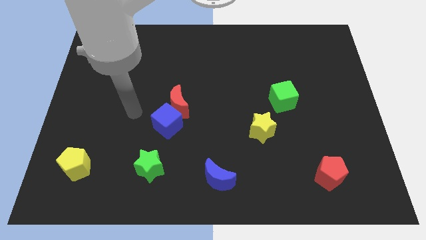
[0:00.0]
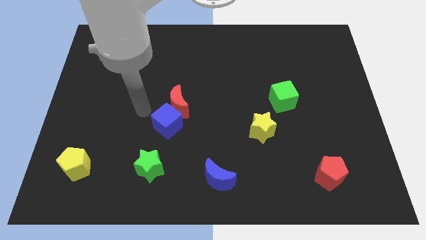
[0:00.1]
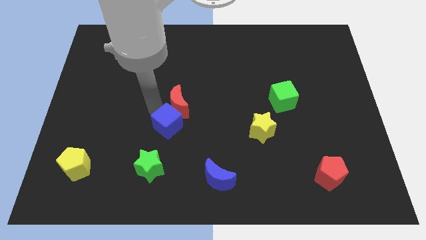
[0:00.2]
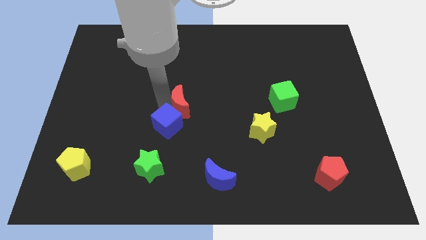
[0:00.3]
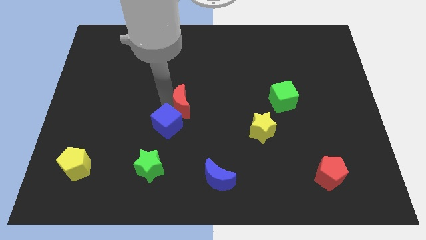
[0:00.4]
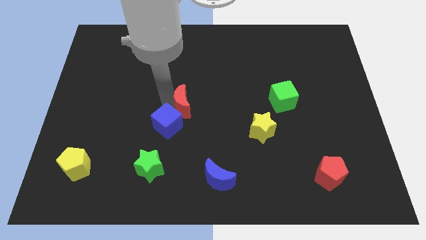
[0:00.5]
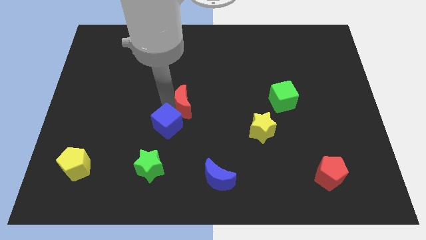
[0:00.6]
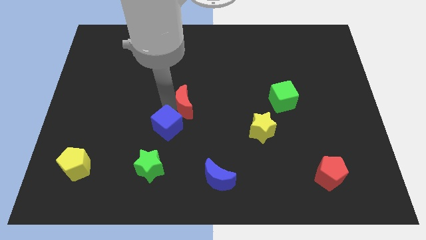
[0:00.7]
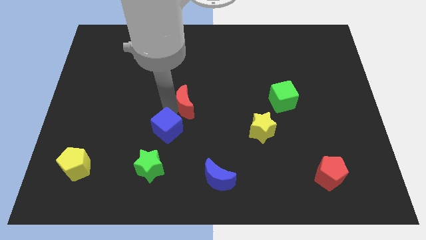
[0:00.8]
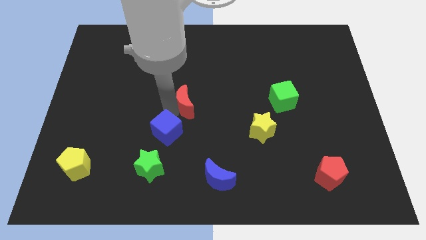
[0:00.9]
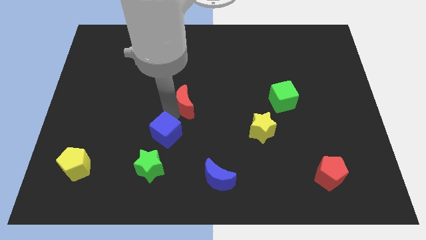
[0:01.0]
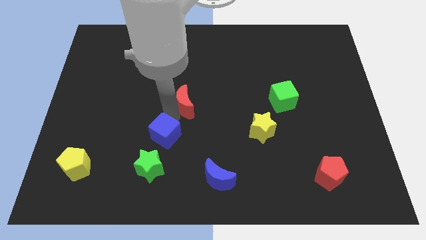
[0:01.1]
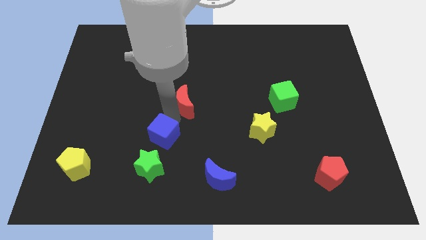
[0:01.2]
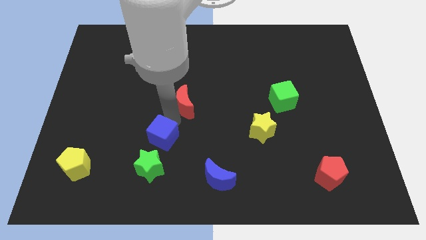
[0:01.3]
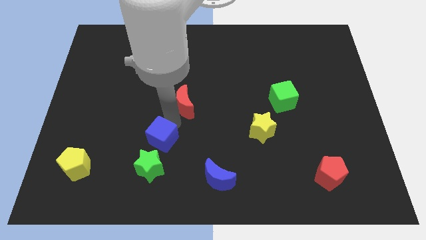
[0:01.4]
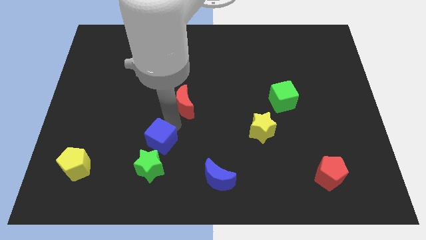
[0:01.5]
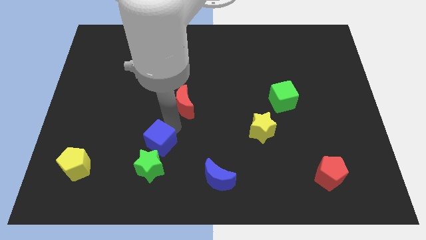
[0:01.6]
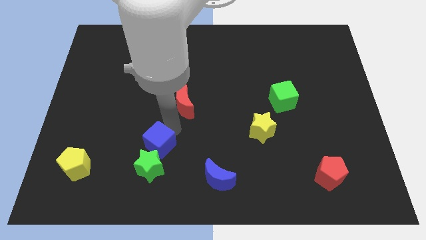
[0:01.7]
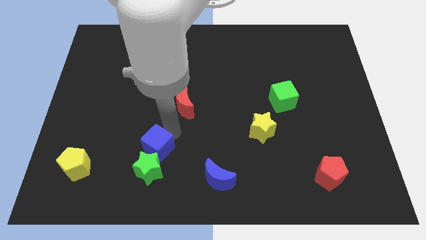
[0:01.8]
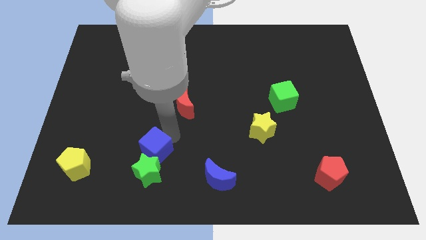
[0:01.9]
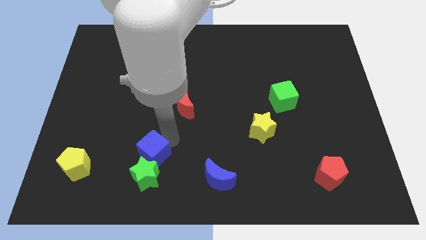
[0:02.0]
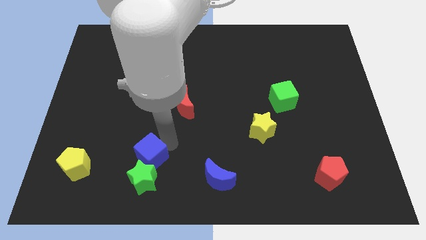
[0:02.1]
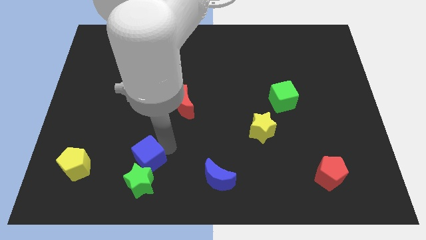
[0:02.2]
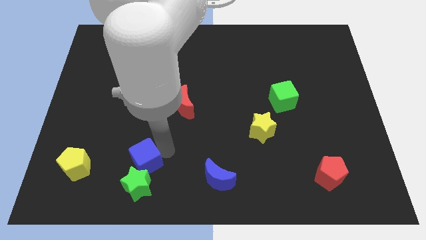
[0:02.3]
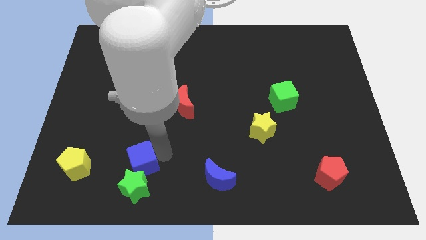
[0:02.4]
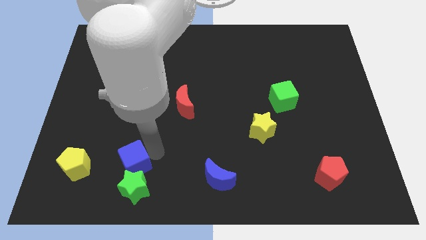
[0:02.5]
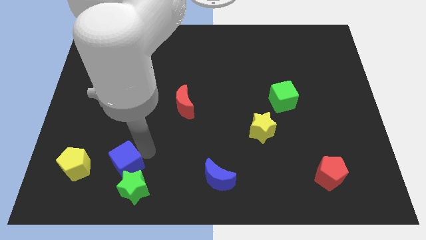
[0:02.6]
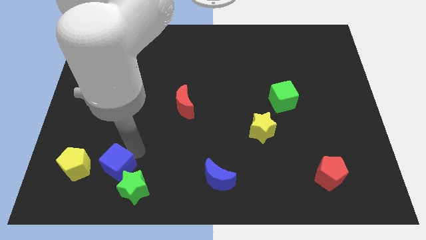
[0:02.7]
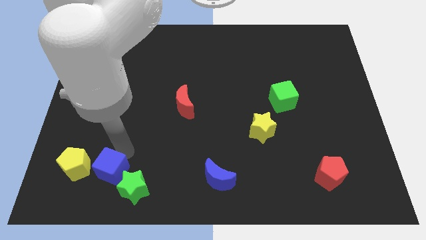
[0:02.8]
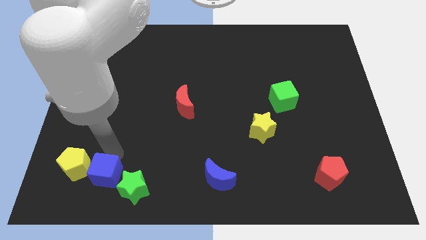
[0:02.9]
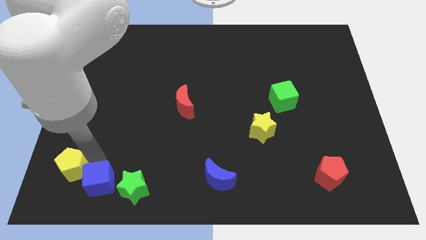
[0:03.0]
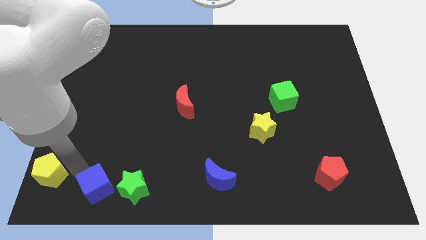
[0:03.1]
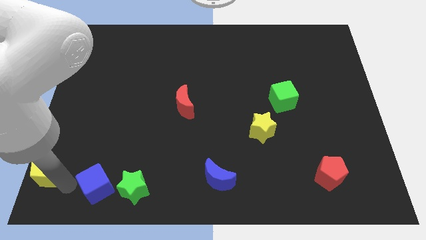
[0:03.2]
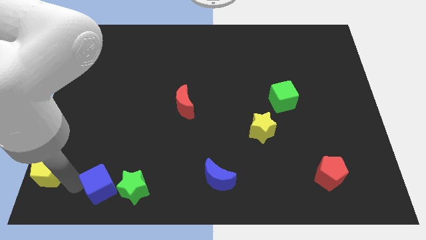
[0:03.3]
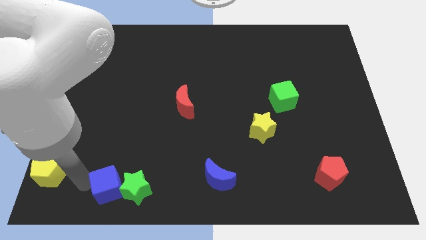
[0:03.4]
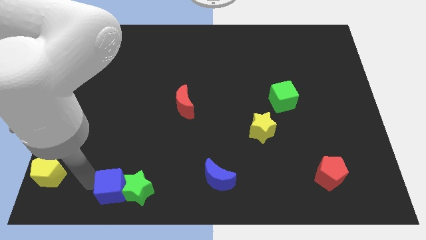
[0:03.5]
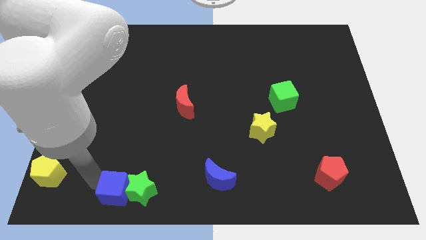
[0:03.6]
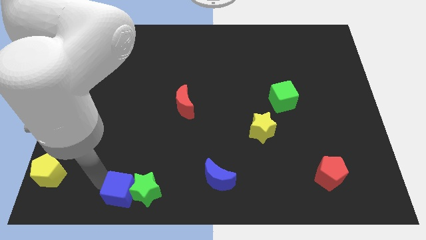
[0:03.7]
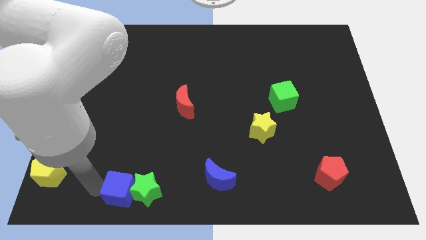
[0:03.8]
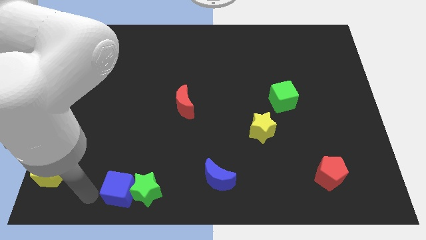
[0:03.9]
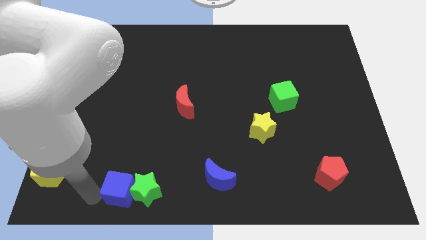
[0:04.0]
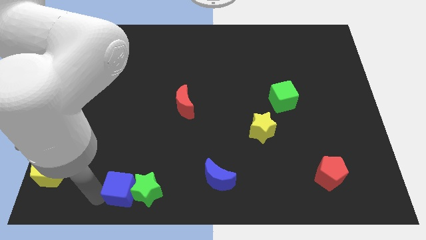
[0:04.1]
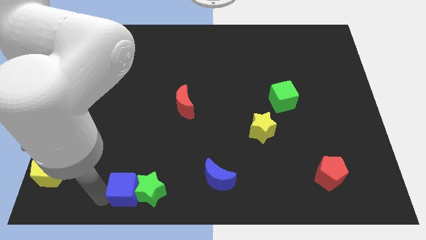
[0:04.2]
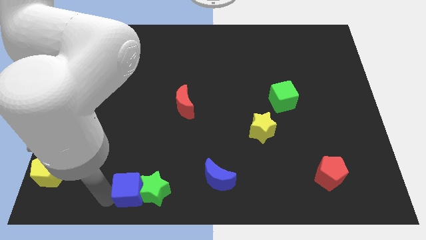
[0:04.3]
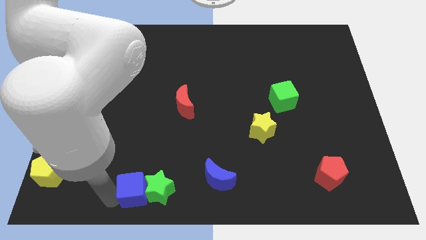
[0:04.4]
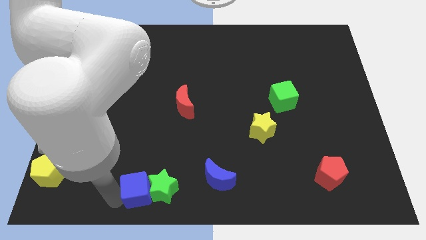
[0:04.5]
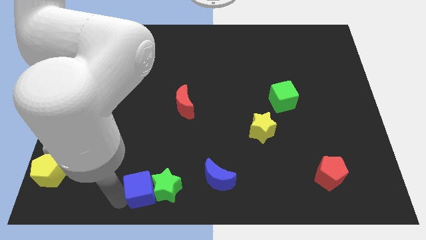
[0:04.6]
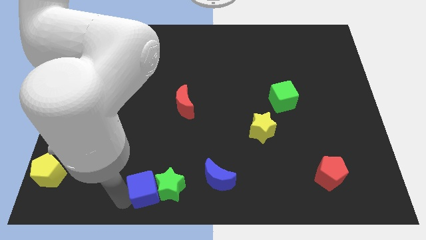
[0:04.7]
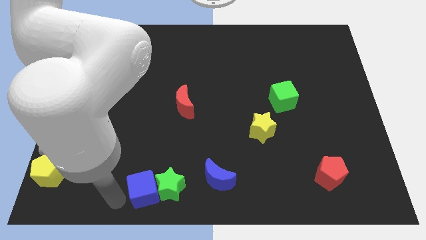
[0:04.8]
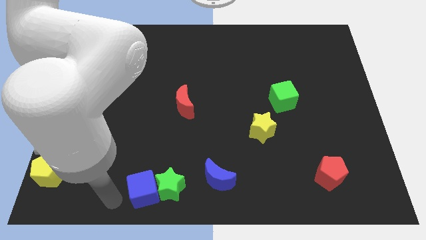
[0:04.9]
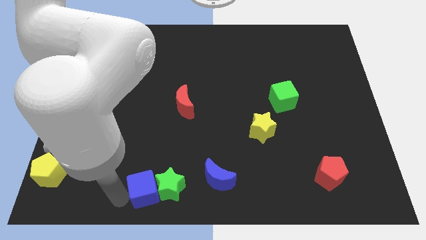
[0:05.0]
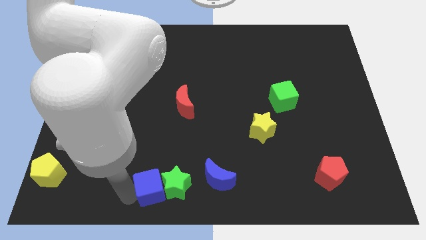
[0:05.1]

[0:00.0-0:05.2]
move the blue cube to the bottom

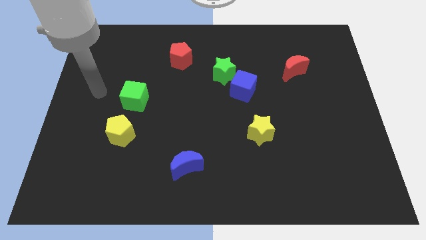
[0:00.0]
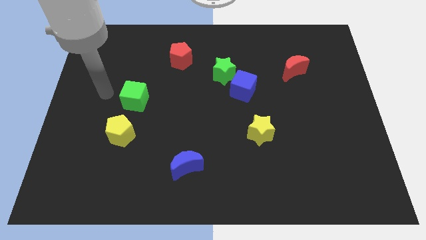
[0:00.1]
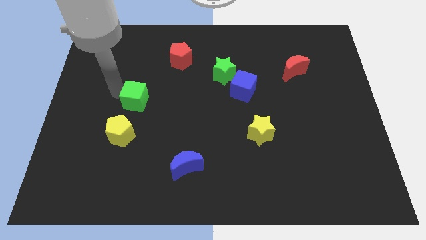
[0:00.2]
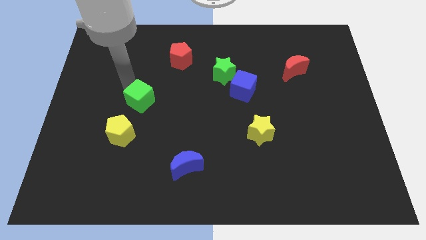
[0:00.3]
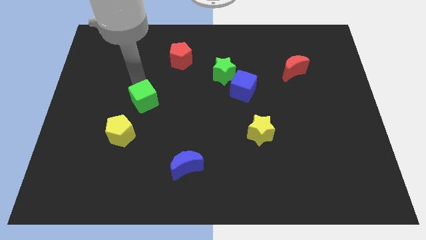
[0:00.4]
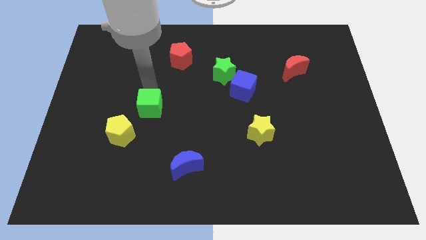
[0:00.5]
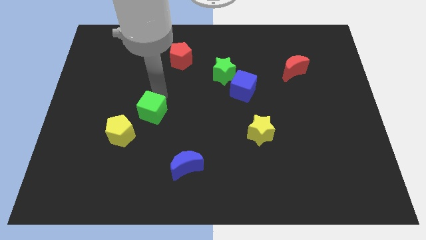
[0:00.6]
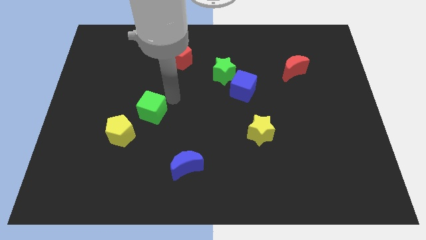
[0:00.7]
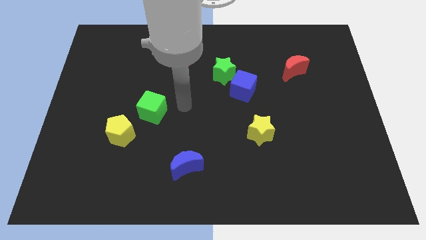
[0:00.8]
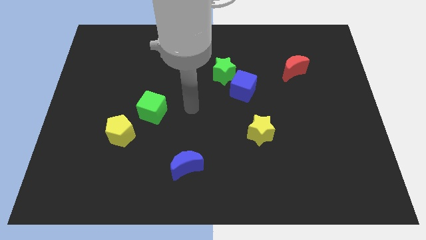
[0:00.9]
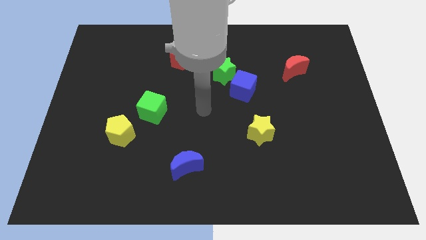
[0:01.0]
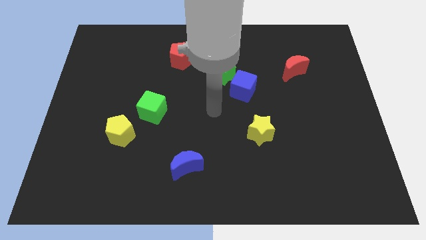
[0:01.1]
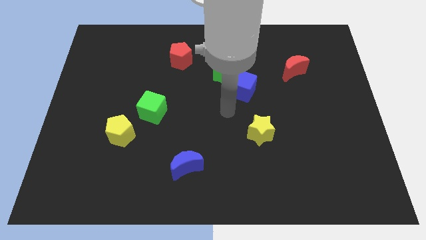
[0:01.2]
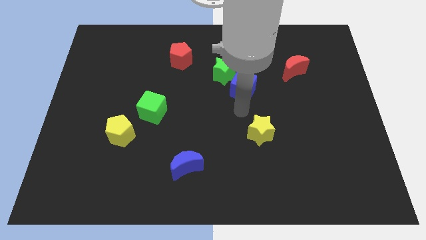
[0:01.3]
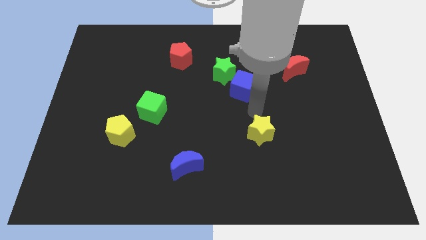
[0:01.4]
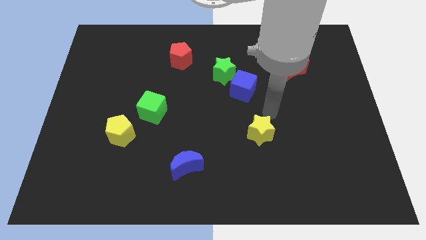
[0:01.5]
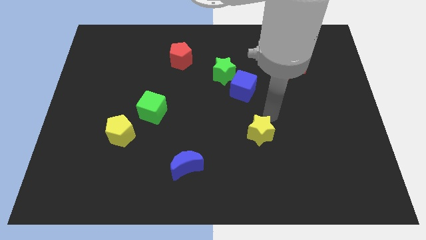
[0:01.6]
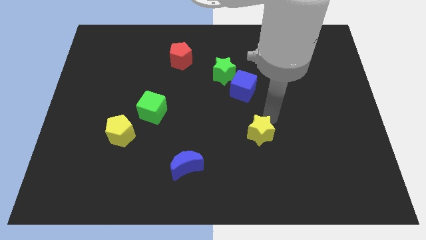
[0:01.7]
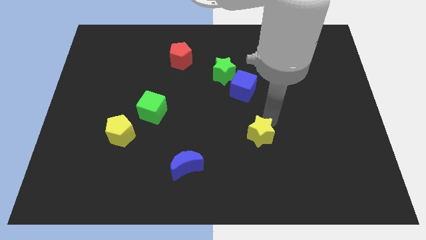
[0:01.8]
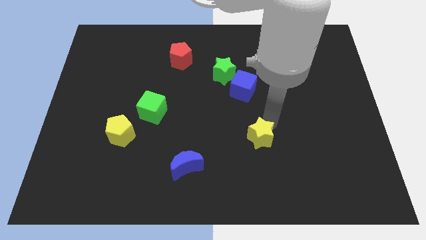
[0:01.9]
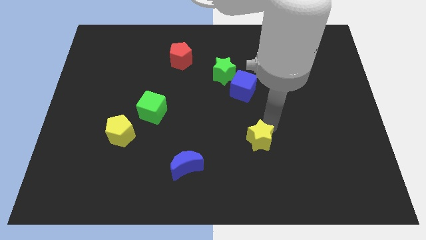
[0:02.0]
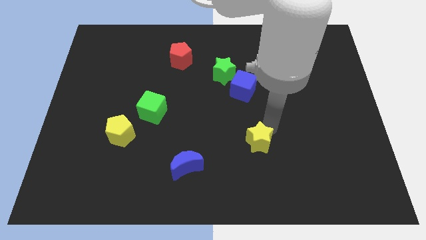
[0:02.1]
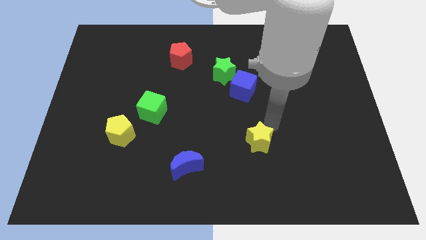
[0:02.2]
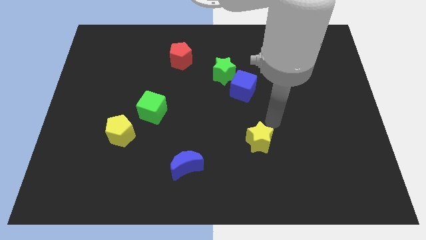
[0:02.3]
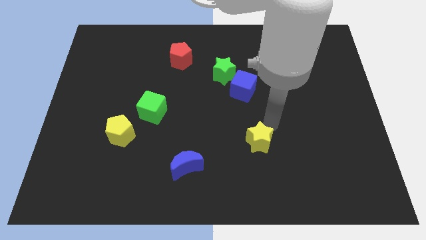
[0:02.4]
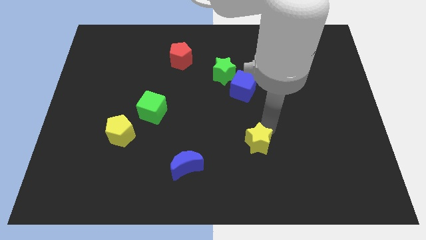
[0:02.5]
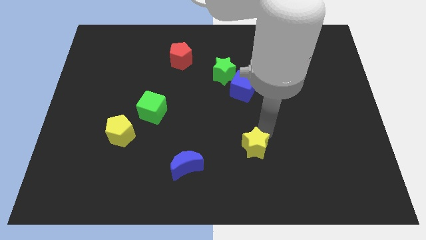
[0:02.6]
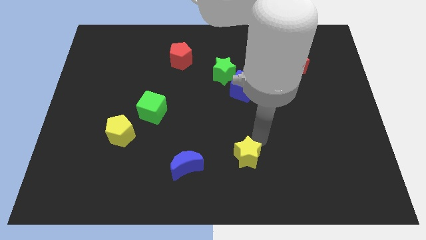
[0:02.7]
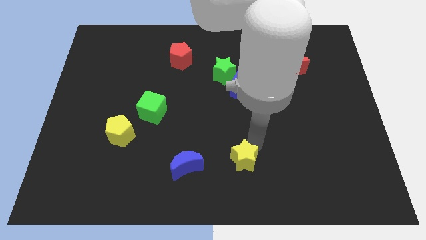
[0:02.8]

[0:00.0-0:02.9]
move the yellow star to the bottom side

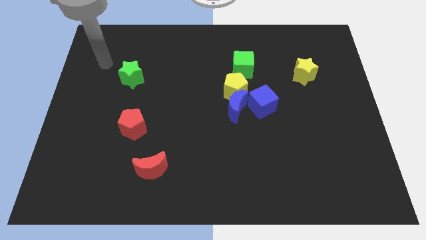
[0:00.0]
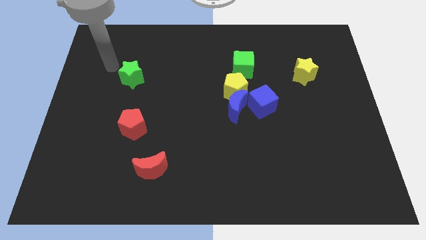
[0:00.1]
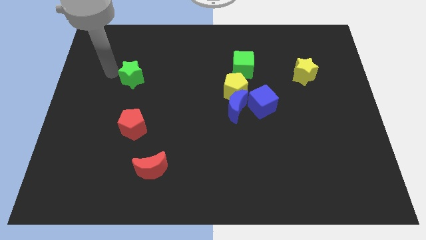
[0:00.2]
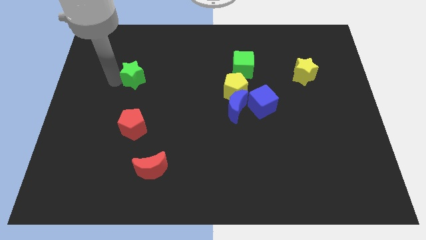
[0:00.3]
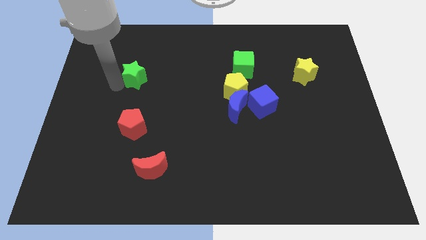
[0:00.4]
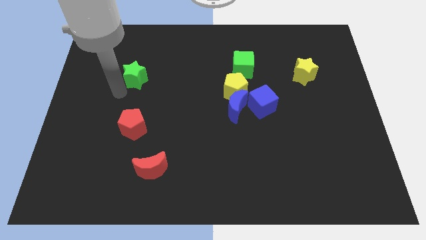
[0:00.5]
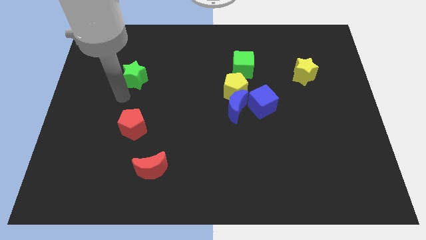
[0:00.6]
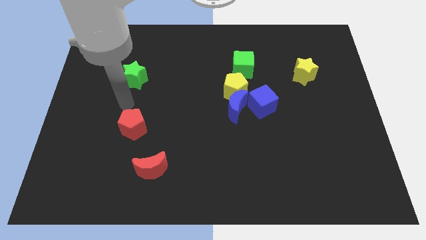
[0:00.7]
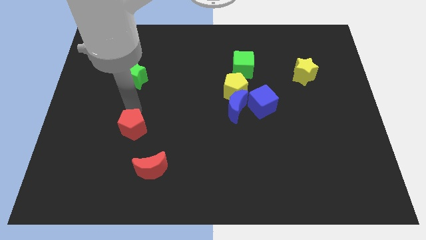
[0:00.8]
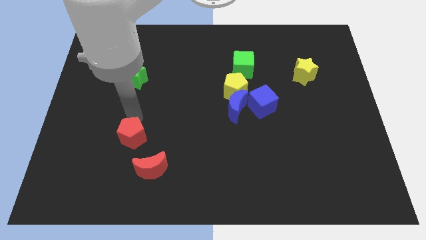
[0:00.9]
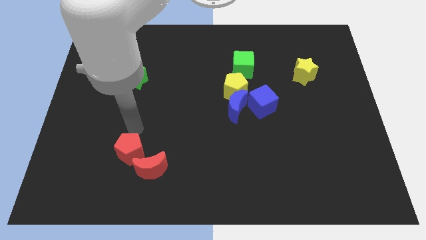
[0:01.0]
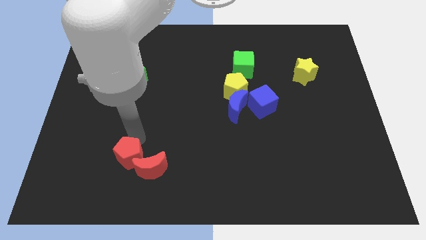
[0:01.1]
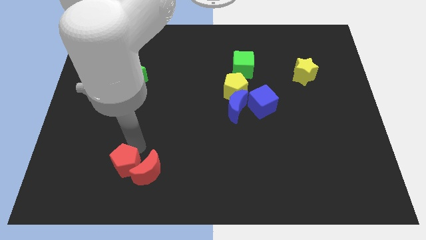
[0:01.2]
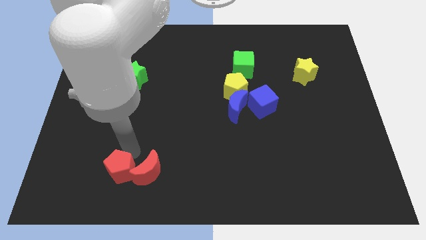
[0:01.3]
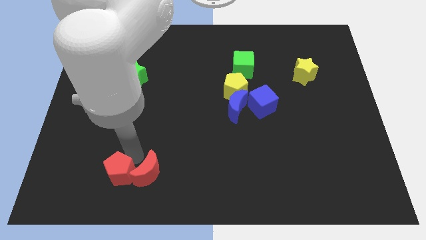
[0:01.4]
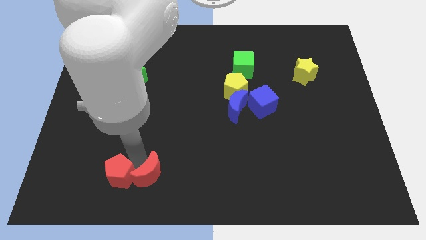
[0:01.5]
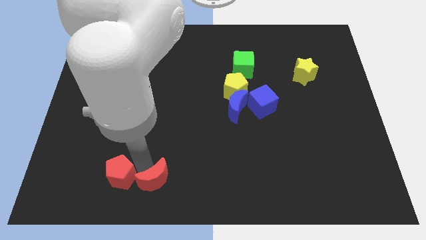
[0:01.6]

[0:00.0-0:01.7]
slide the red moon to the bottom side
